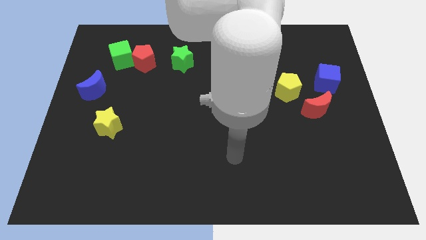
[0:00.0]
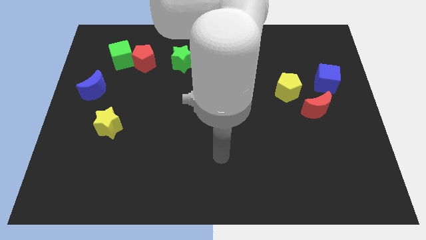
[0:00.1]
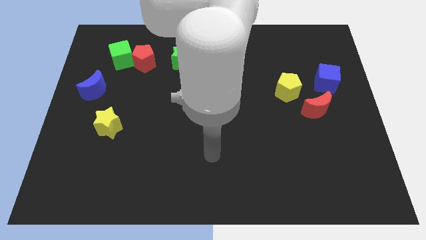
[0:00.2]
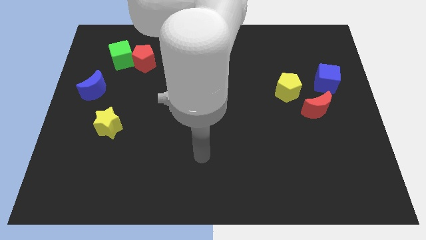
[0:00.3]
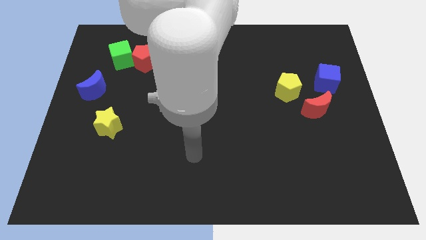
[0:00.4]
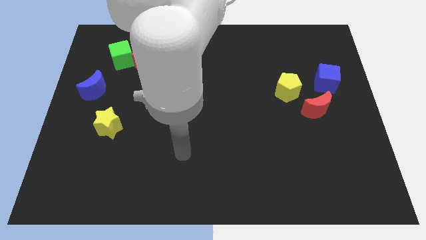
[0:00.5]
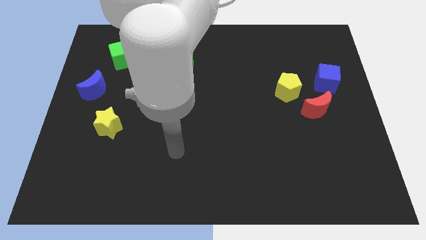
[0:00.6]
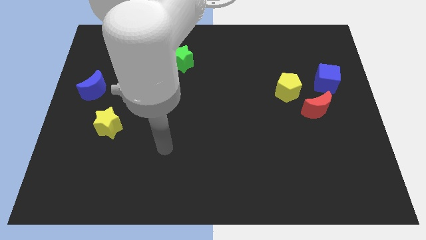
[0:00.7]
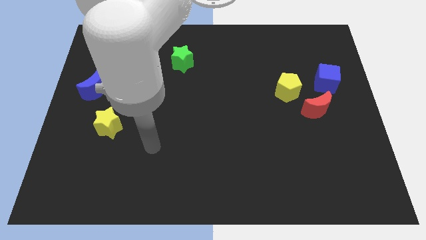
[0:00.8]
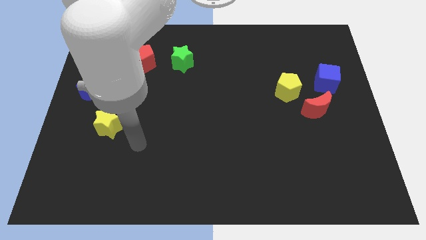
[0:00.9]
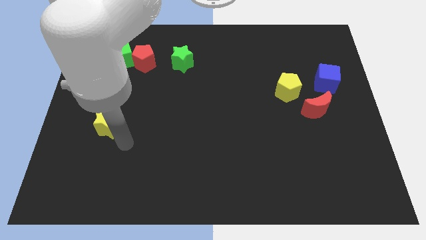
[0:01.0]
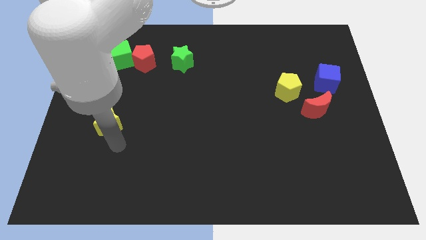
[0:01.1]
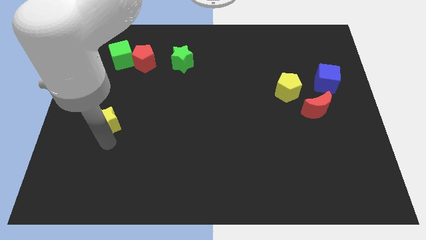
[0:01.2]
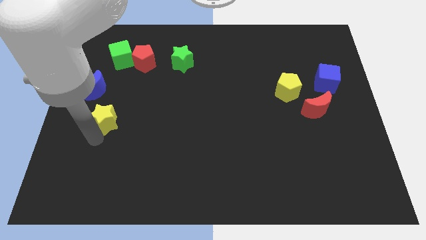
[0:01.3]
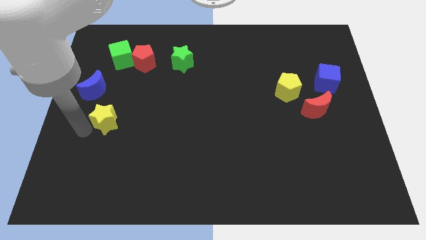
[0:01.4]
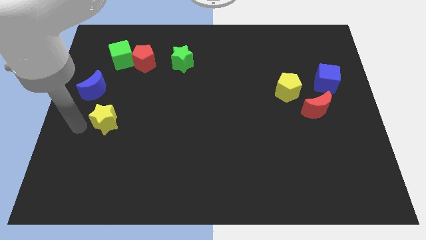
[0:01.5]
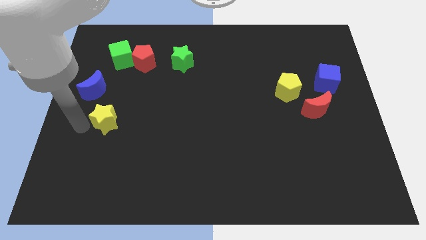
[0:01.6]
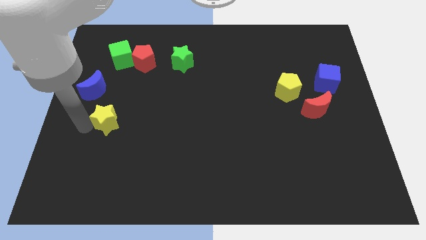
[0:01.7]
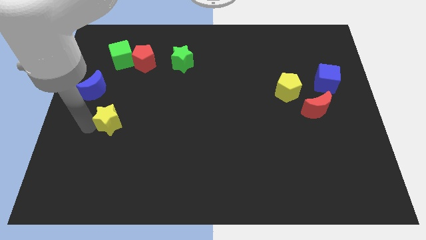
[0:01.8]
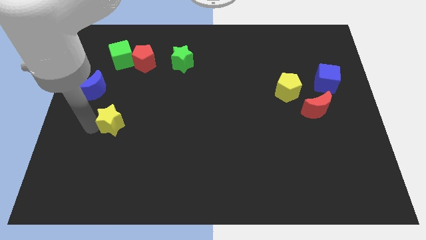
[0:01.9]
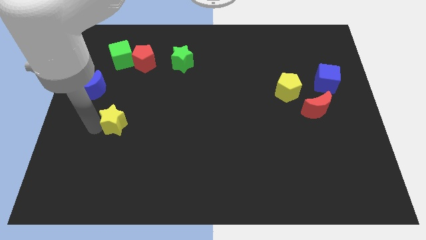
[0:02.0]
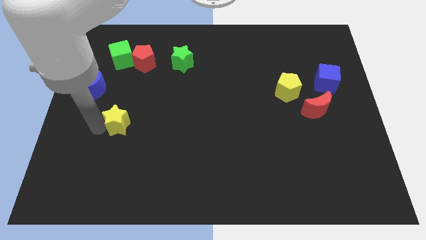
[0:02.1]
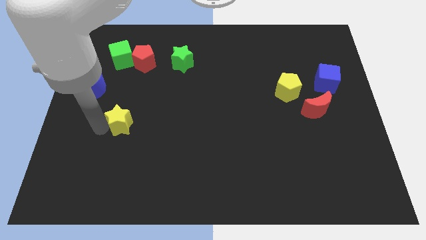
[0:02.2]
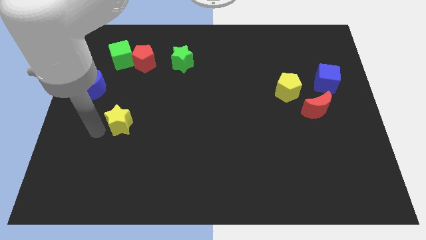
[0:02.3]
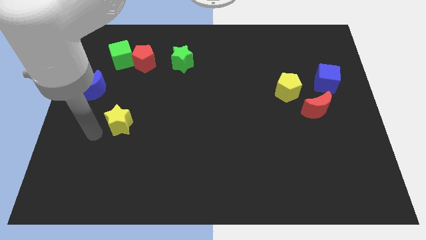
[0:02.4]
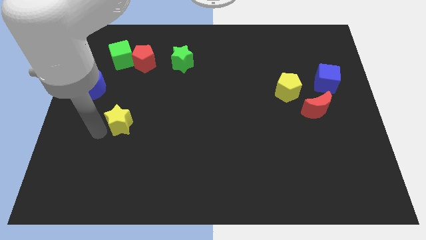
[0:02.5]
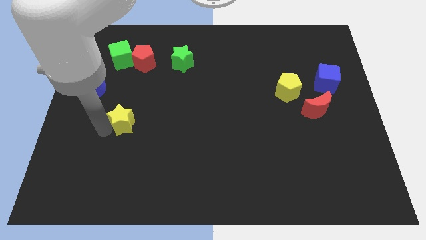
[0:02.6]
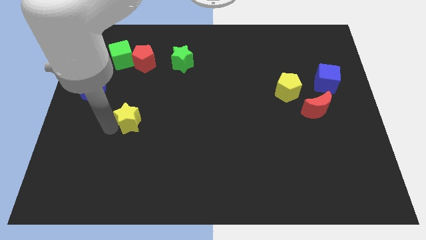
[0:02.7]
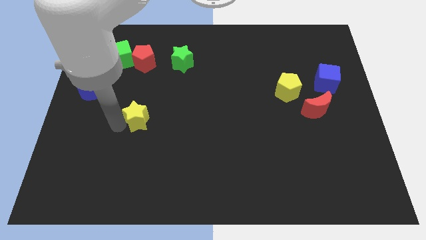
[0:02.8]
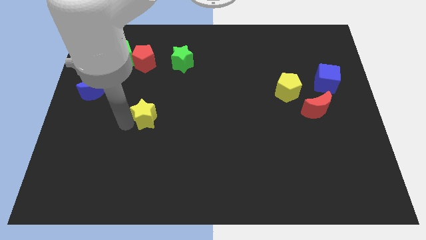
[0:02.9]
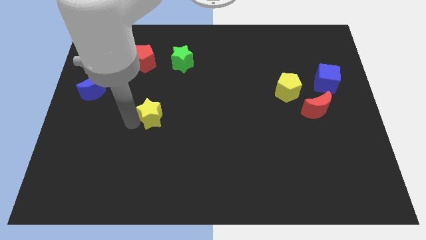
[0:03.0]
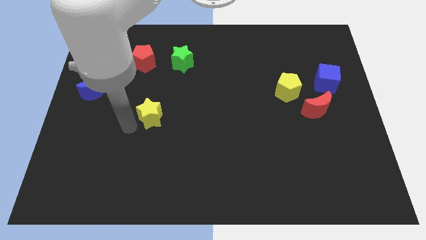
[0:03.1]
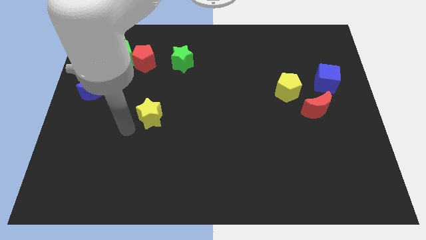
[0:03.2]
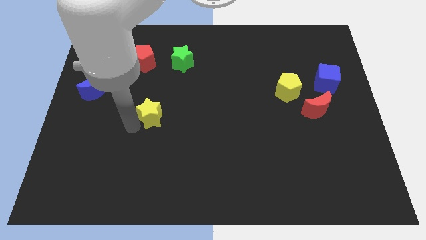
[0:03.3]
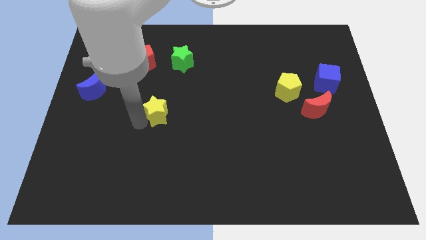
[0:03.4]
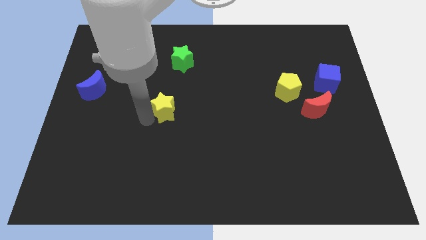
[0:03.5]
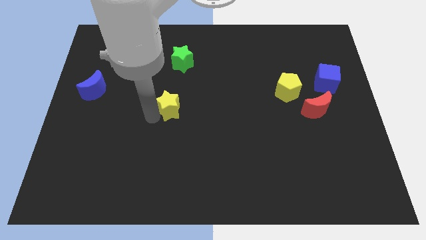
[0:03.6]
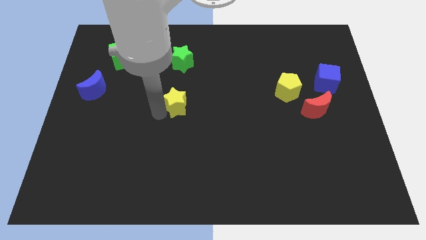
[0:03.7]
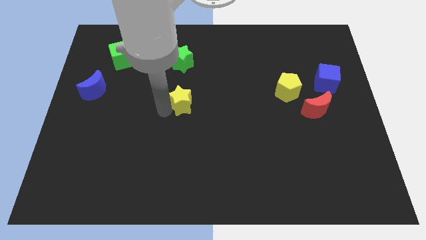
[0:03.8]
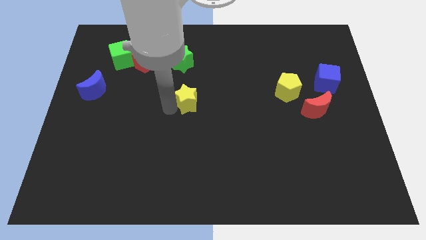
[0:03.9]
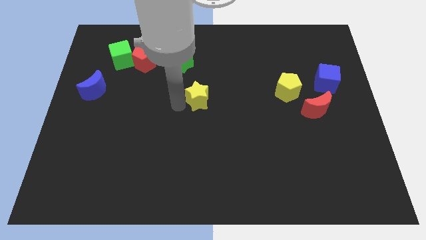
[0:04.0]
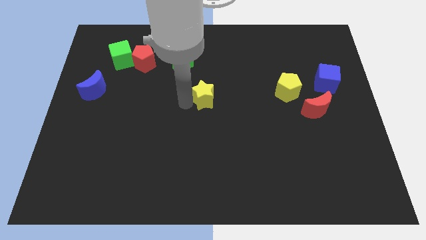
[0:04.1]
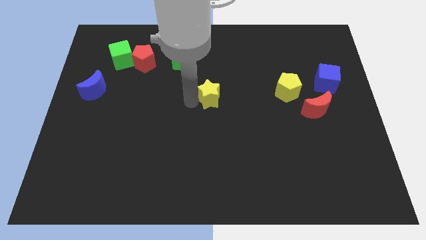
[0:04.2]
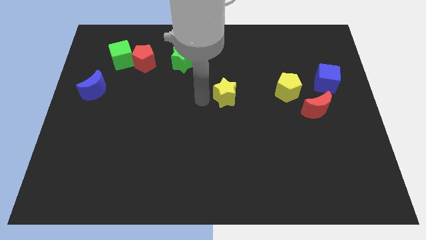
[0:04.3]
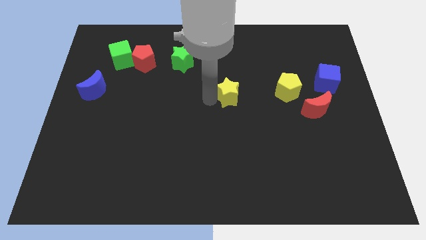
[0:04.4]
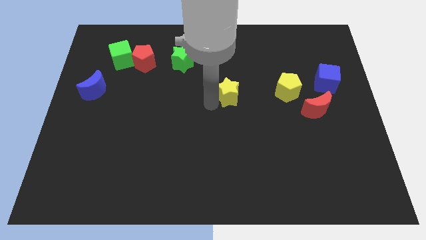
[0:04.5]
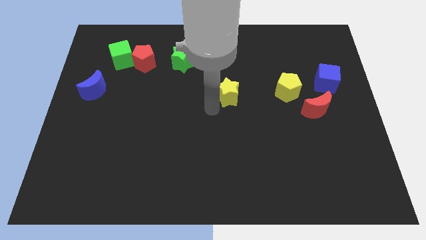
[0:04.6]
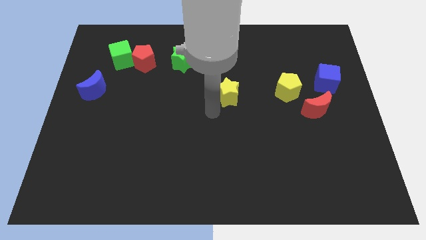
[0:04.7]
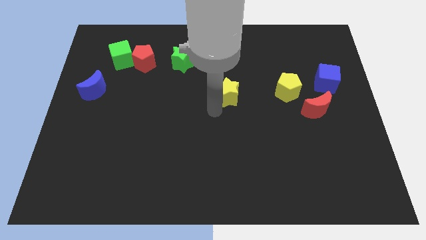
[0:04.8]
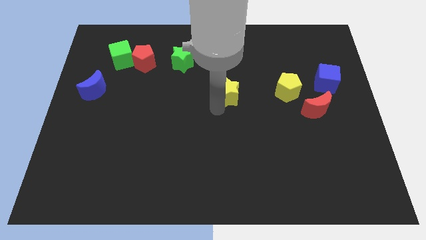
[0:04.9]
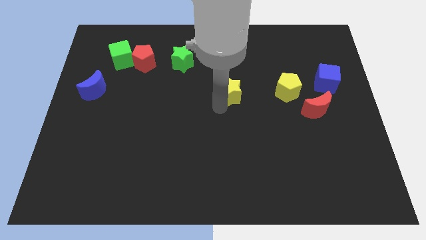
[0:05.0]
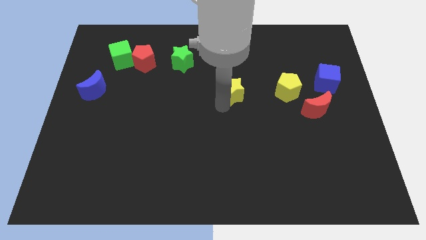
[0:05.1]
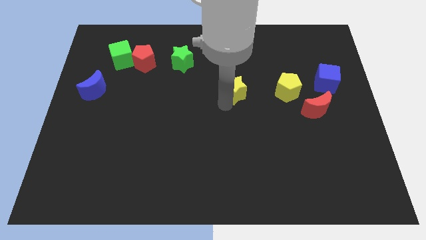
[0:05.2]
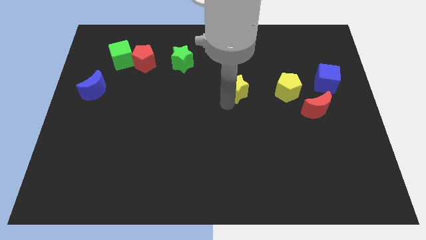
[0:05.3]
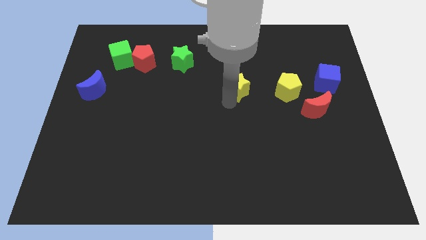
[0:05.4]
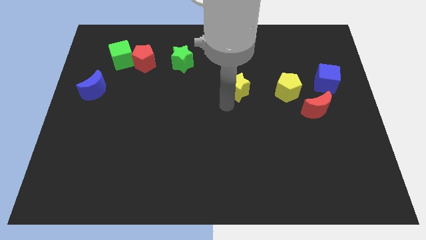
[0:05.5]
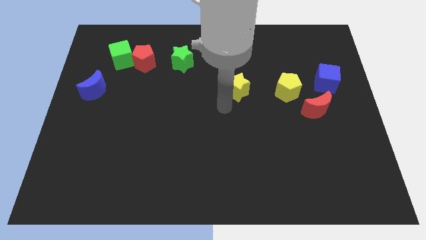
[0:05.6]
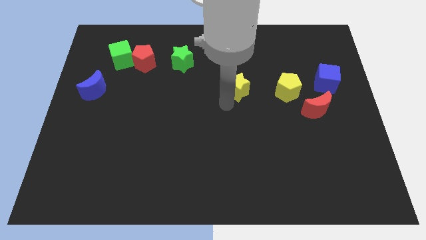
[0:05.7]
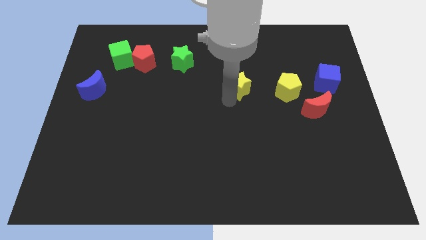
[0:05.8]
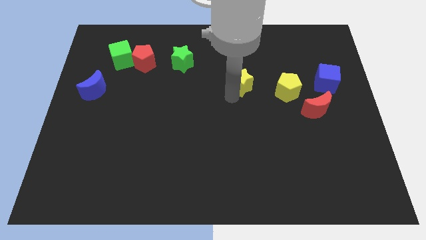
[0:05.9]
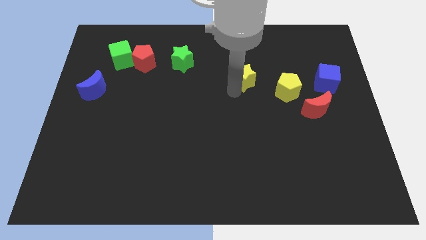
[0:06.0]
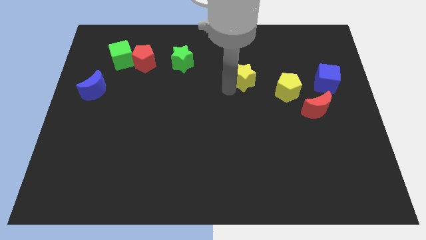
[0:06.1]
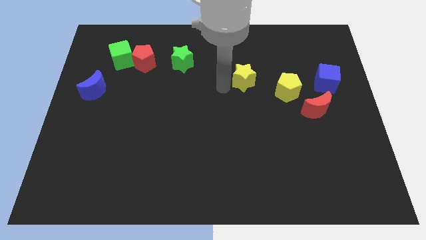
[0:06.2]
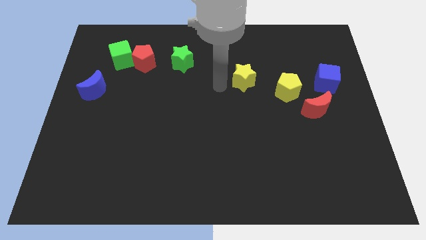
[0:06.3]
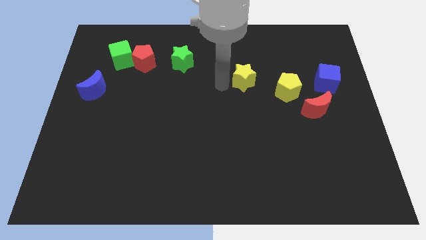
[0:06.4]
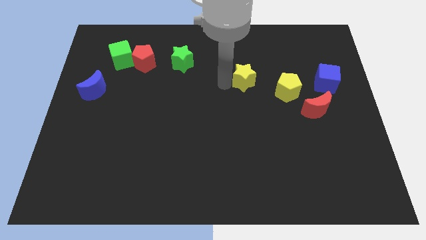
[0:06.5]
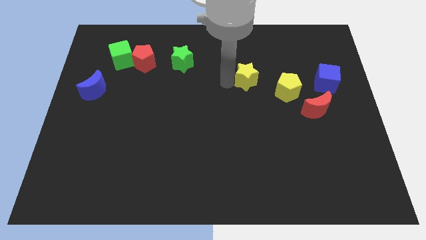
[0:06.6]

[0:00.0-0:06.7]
move the yellow star to the top left side of the yellow pentagon

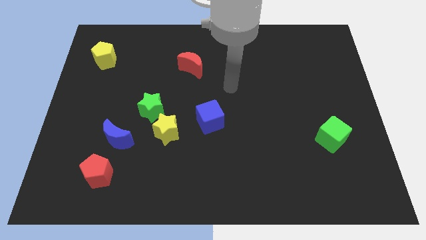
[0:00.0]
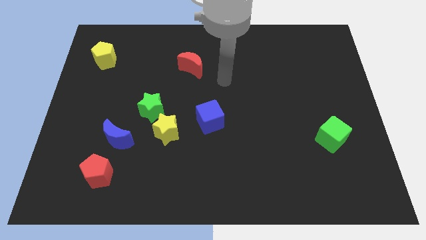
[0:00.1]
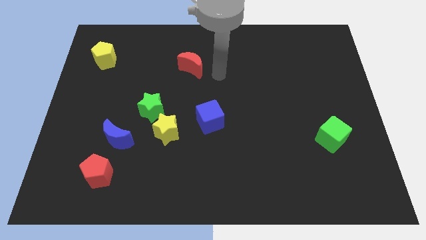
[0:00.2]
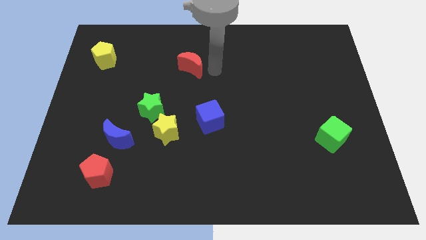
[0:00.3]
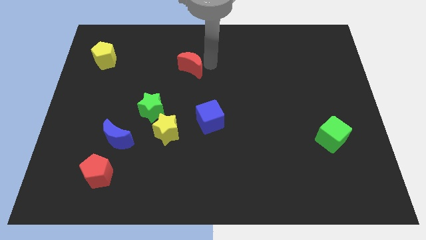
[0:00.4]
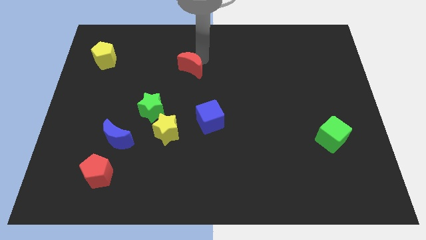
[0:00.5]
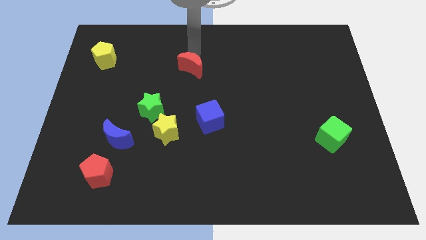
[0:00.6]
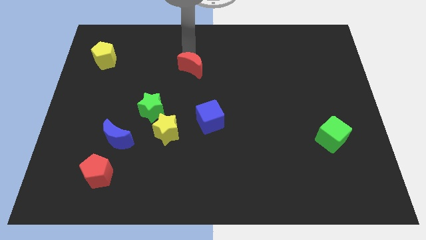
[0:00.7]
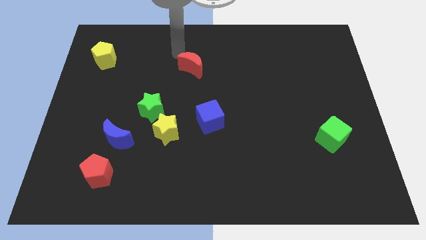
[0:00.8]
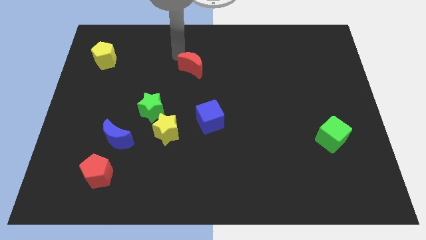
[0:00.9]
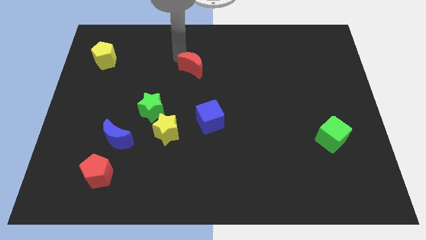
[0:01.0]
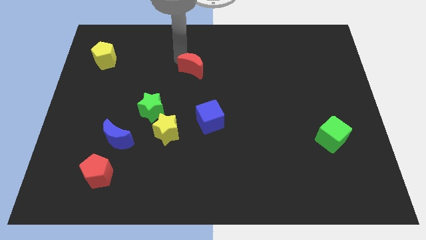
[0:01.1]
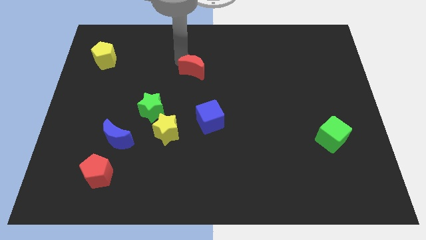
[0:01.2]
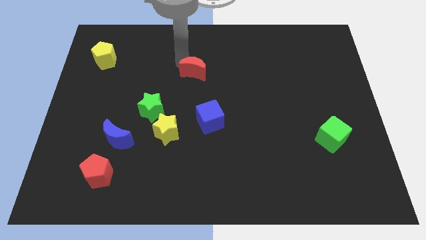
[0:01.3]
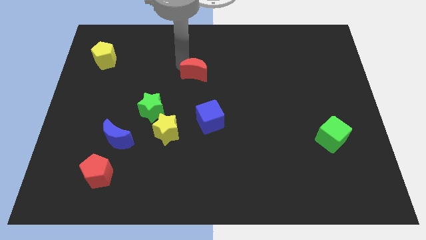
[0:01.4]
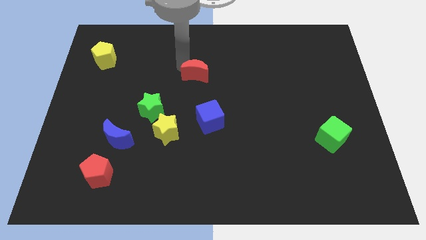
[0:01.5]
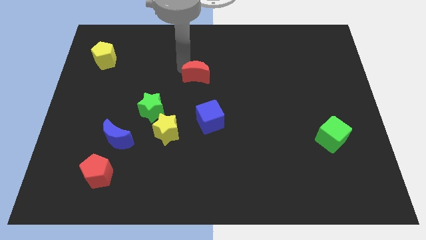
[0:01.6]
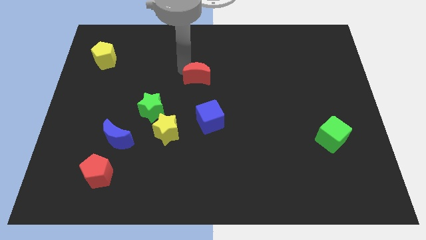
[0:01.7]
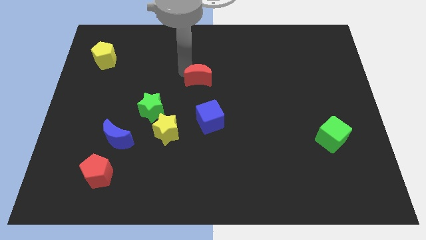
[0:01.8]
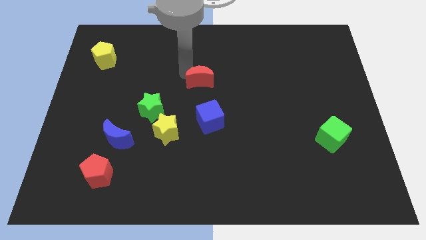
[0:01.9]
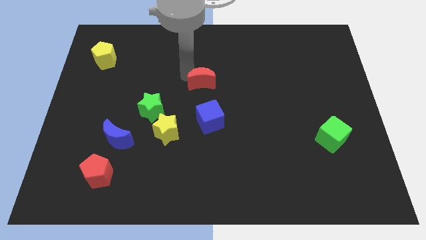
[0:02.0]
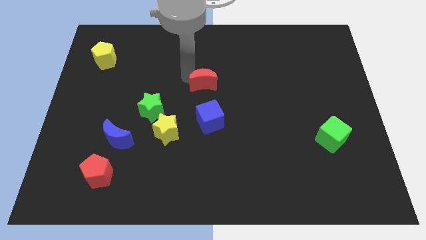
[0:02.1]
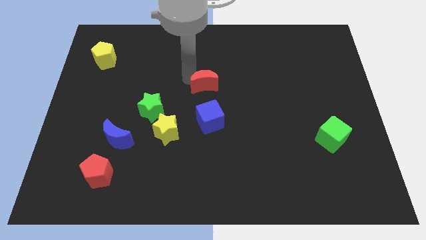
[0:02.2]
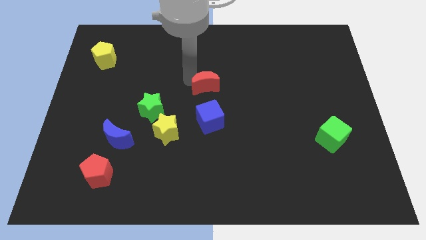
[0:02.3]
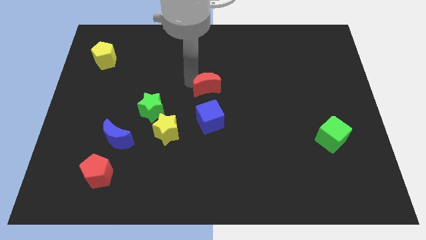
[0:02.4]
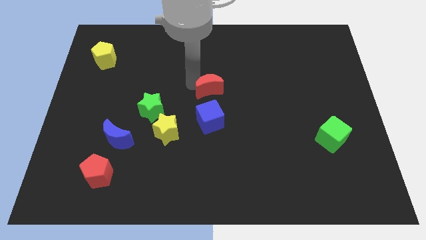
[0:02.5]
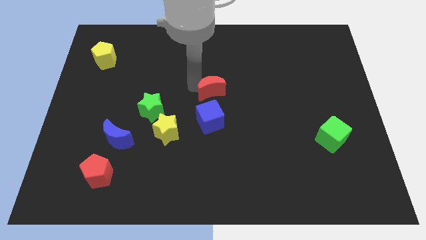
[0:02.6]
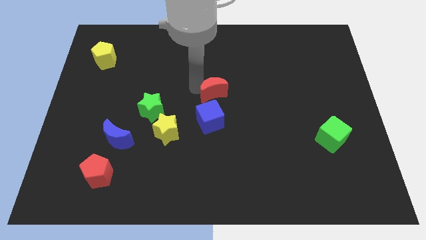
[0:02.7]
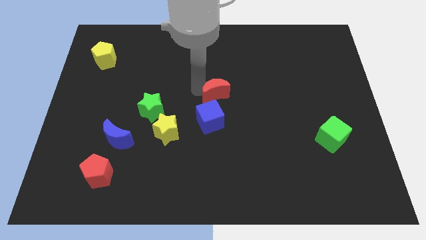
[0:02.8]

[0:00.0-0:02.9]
slide the red moon to the top right of the blue cube
